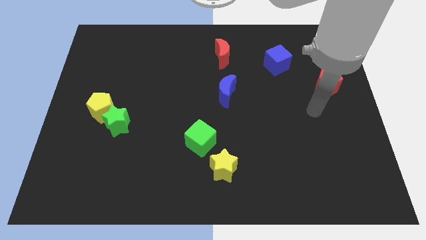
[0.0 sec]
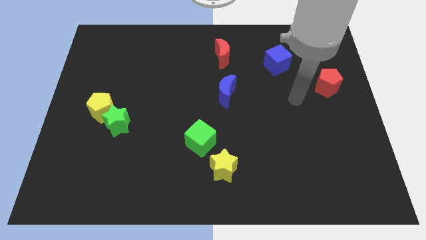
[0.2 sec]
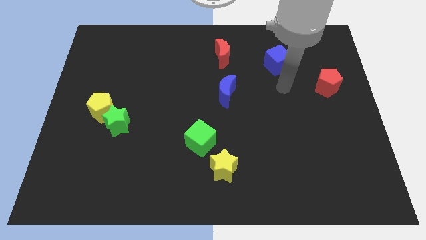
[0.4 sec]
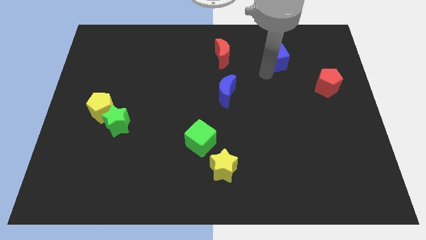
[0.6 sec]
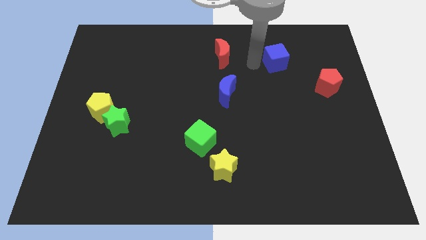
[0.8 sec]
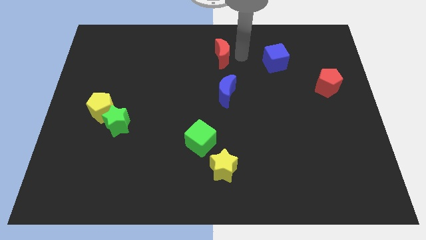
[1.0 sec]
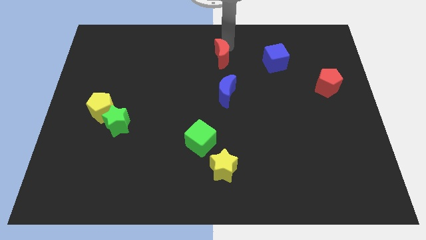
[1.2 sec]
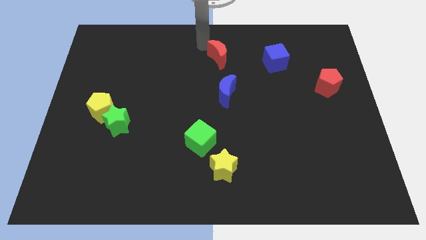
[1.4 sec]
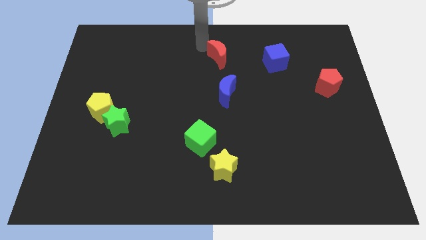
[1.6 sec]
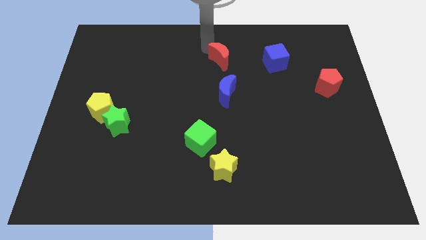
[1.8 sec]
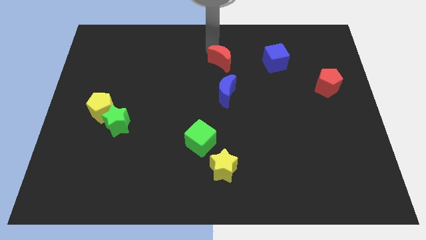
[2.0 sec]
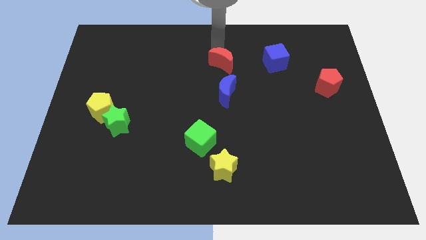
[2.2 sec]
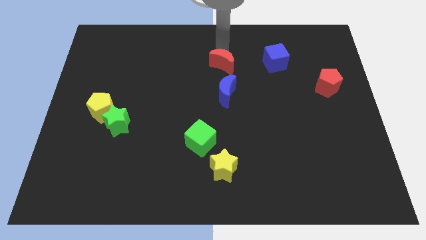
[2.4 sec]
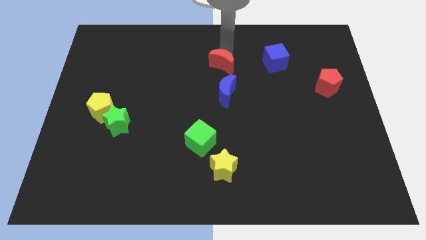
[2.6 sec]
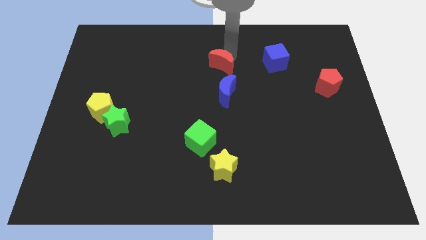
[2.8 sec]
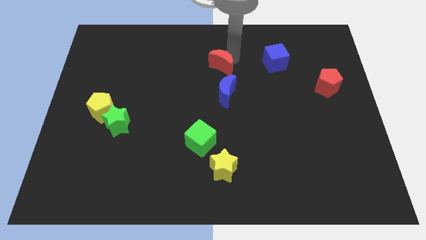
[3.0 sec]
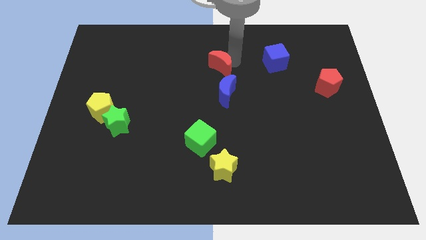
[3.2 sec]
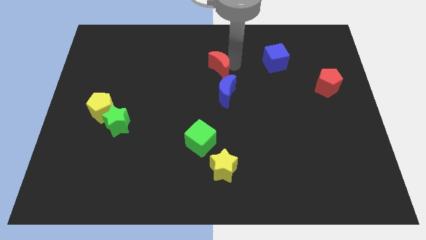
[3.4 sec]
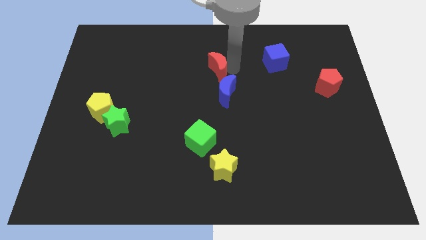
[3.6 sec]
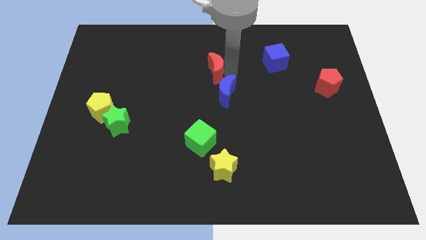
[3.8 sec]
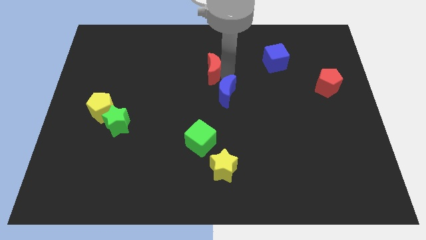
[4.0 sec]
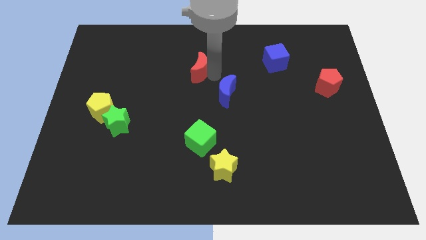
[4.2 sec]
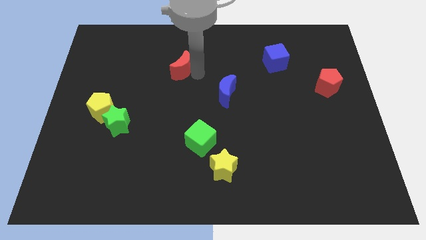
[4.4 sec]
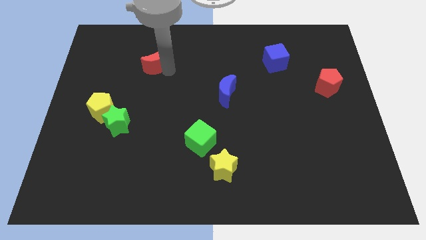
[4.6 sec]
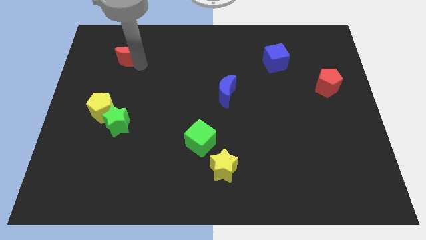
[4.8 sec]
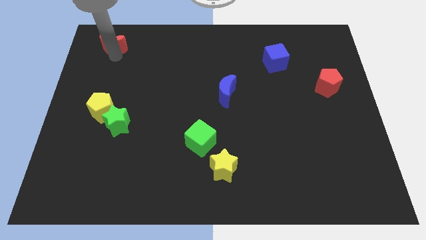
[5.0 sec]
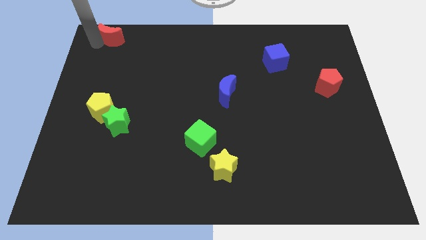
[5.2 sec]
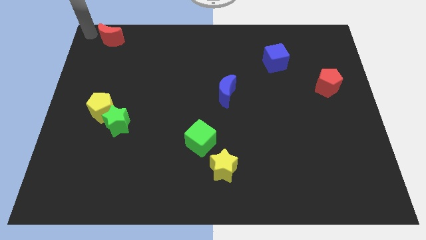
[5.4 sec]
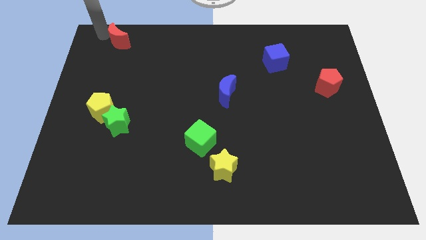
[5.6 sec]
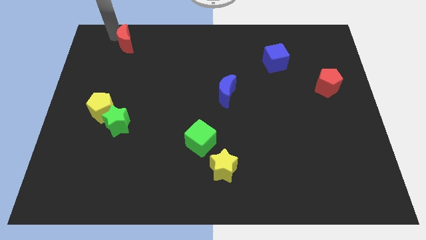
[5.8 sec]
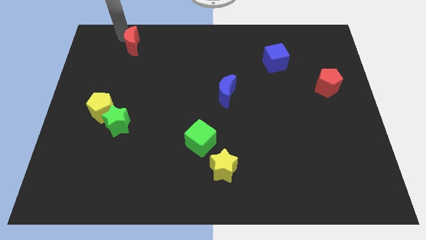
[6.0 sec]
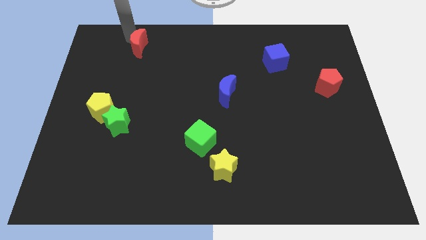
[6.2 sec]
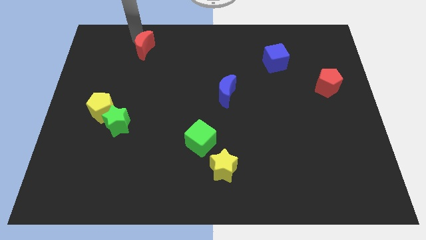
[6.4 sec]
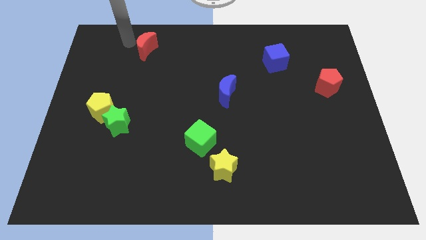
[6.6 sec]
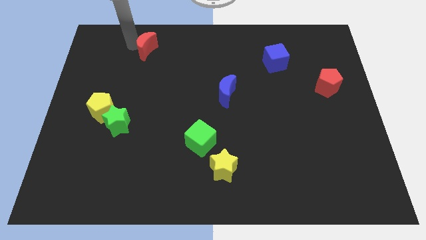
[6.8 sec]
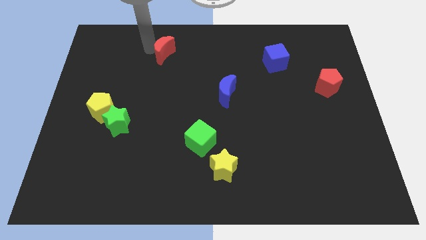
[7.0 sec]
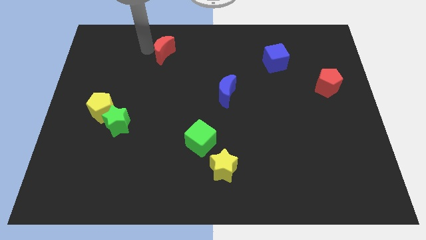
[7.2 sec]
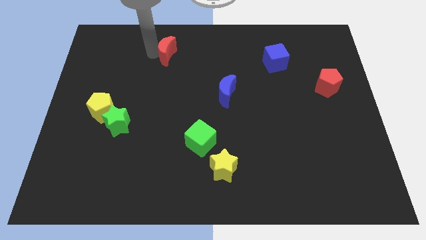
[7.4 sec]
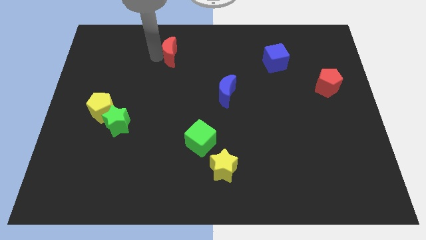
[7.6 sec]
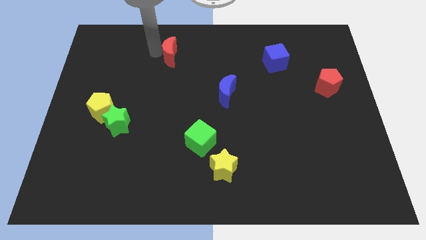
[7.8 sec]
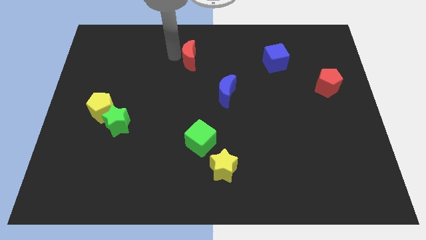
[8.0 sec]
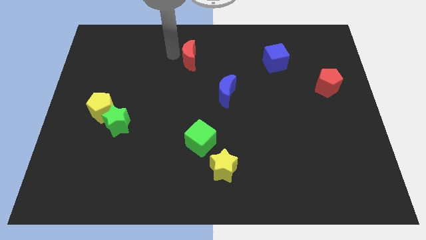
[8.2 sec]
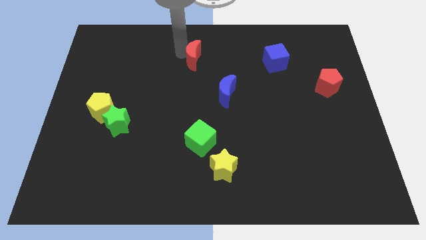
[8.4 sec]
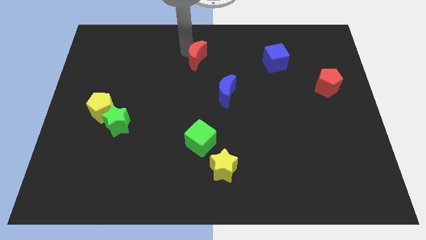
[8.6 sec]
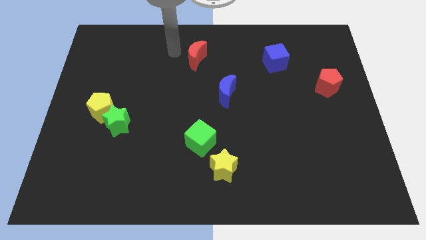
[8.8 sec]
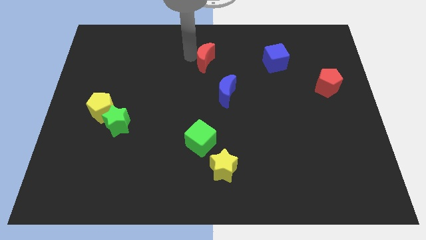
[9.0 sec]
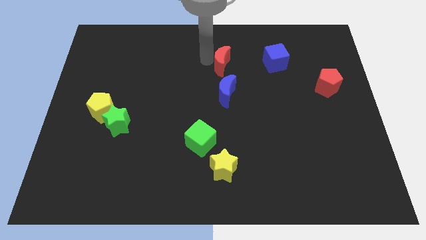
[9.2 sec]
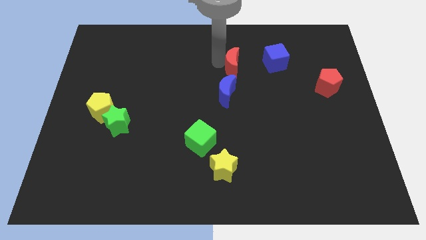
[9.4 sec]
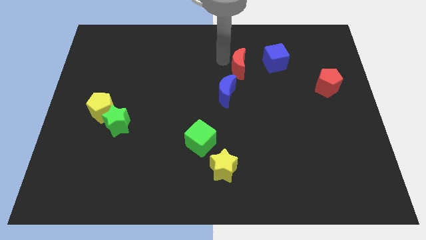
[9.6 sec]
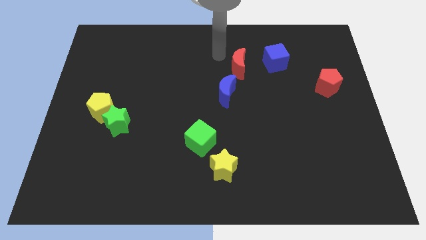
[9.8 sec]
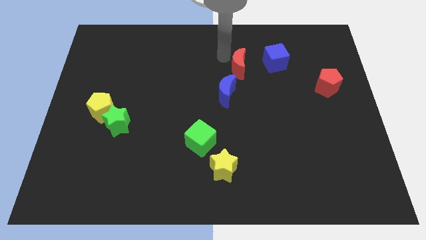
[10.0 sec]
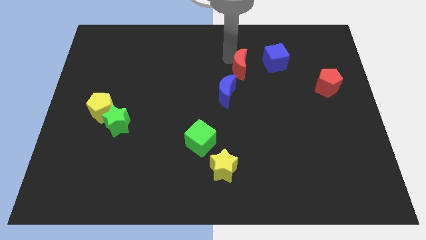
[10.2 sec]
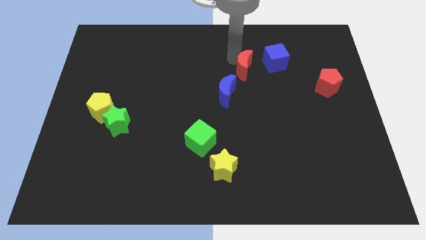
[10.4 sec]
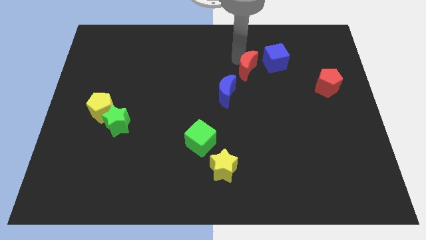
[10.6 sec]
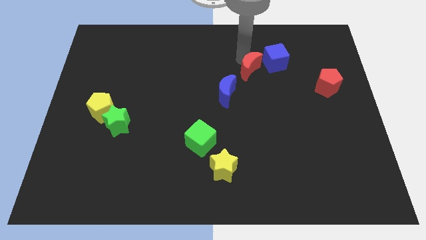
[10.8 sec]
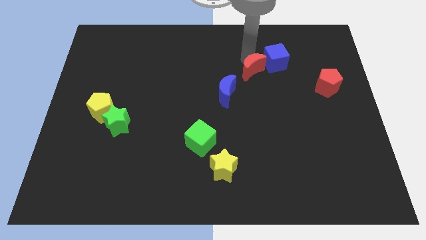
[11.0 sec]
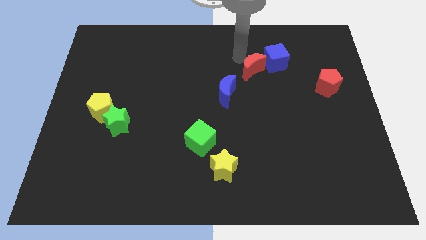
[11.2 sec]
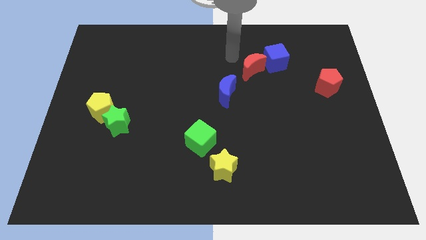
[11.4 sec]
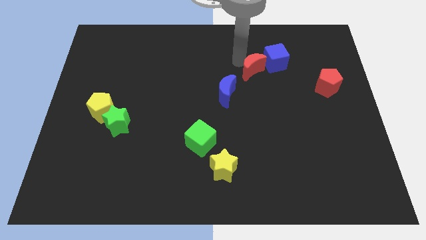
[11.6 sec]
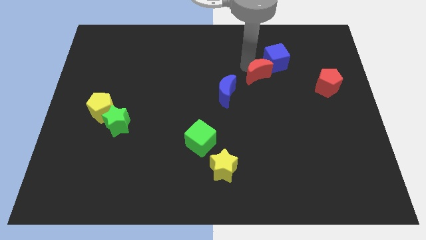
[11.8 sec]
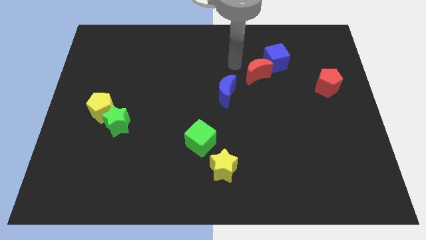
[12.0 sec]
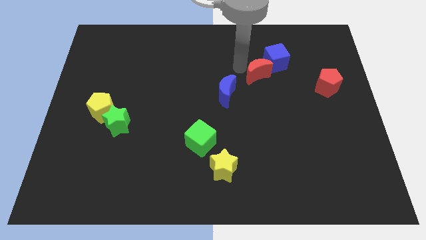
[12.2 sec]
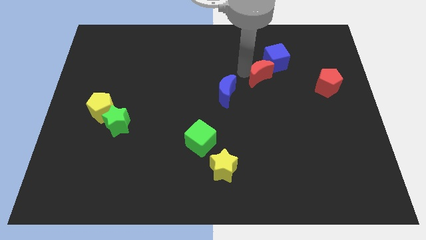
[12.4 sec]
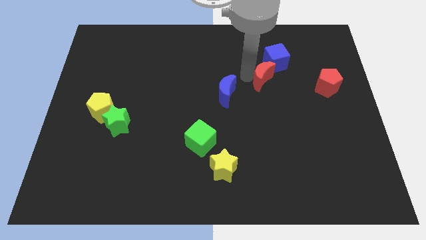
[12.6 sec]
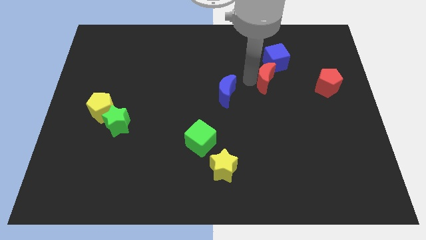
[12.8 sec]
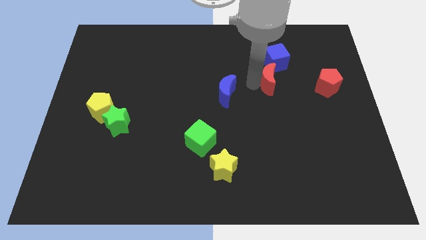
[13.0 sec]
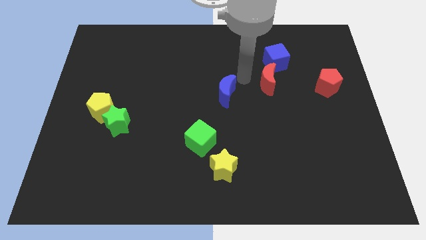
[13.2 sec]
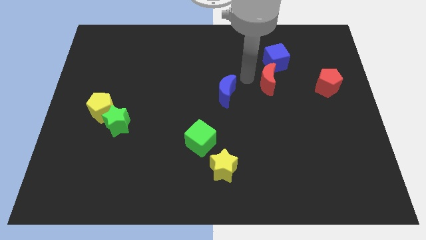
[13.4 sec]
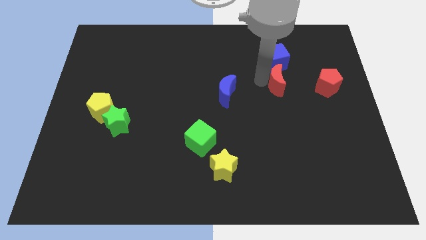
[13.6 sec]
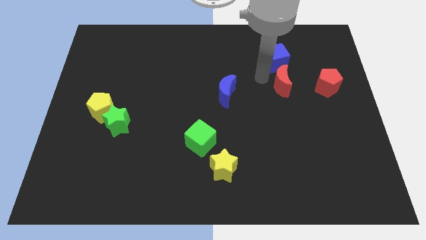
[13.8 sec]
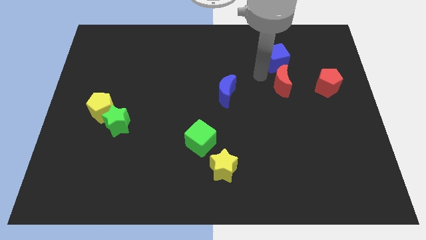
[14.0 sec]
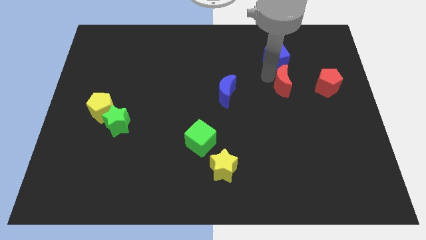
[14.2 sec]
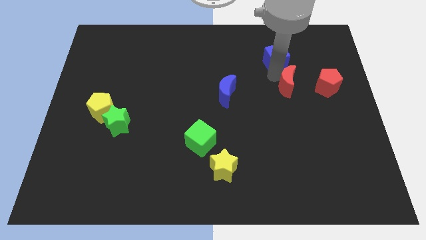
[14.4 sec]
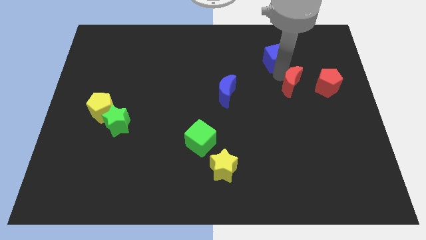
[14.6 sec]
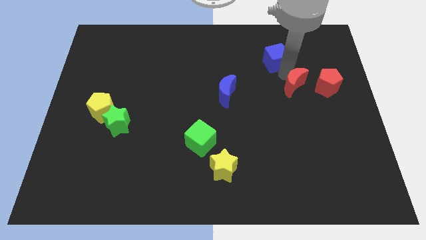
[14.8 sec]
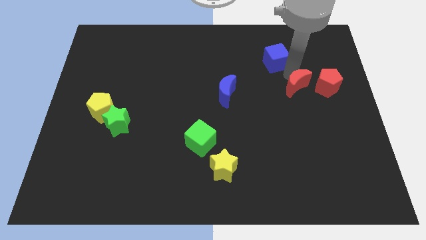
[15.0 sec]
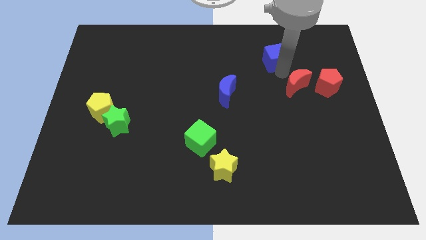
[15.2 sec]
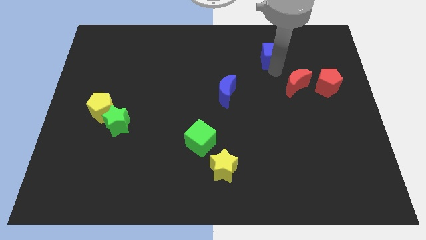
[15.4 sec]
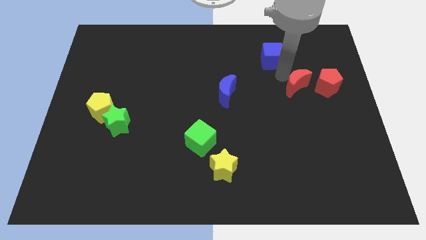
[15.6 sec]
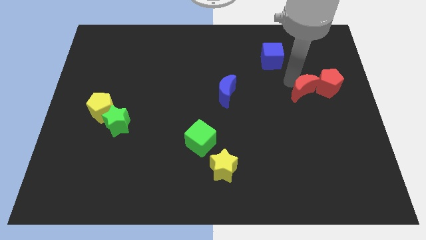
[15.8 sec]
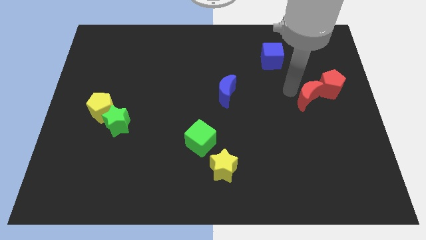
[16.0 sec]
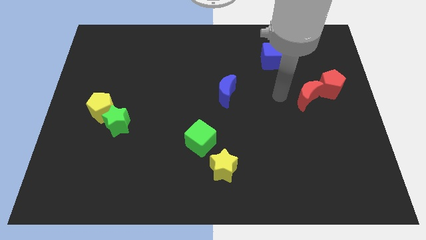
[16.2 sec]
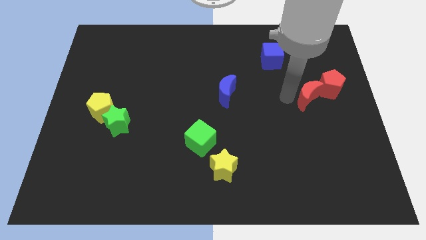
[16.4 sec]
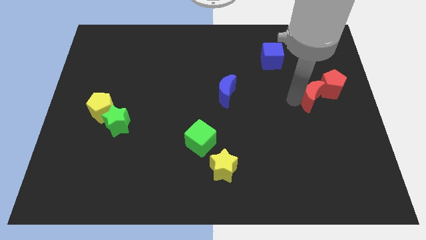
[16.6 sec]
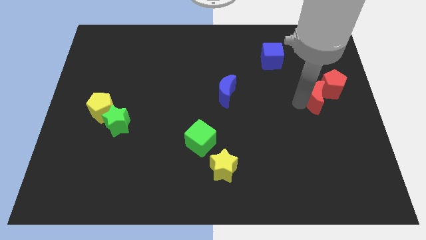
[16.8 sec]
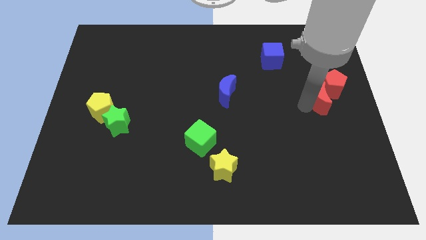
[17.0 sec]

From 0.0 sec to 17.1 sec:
put the red moon to the right side
